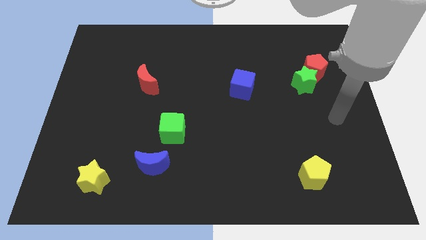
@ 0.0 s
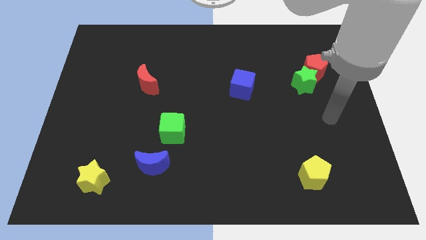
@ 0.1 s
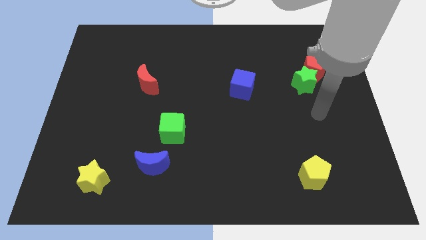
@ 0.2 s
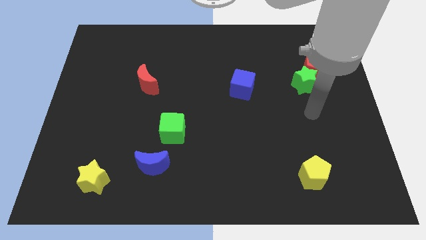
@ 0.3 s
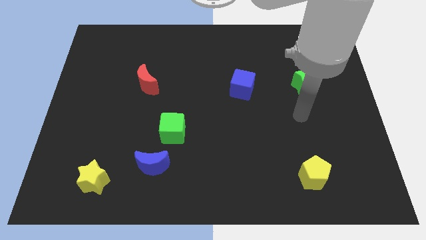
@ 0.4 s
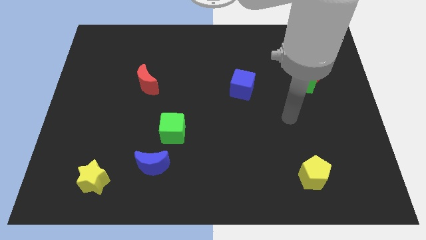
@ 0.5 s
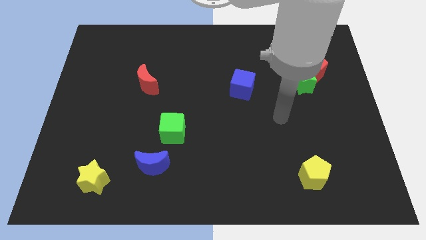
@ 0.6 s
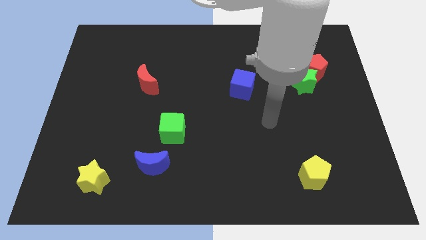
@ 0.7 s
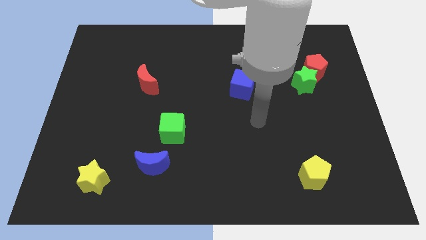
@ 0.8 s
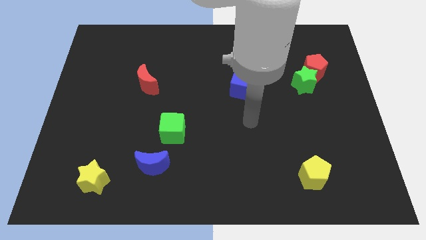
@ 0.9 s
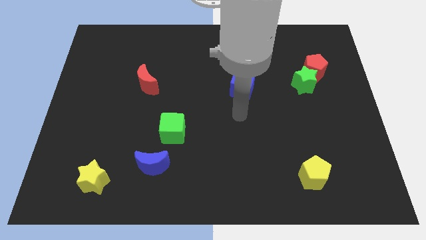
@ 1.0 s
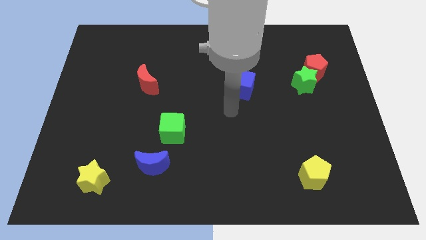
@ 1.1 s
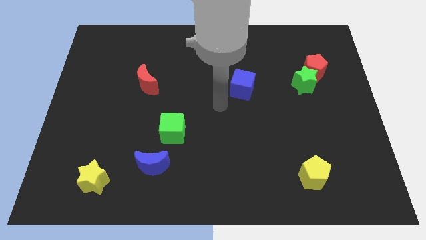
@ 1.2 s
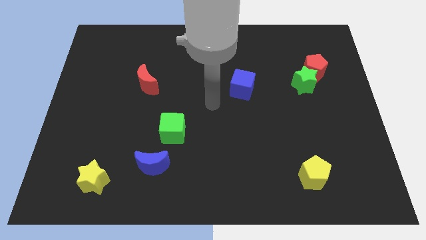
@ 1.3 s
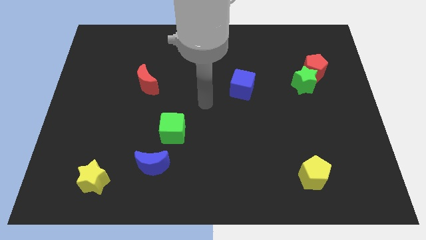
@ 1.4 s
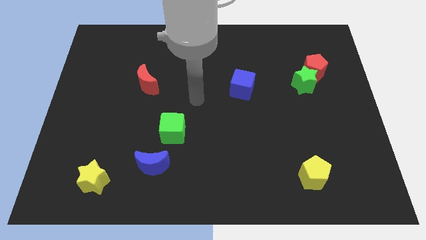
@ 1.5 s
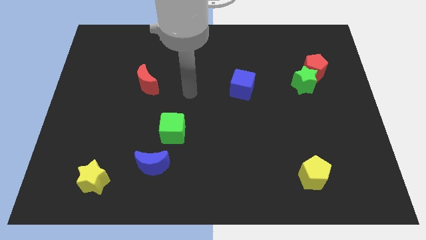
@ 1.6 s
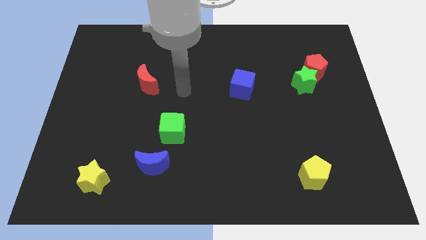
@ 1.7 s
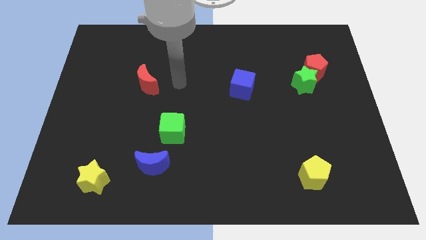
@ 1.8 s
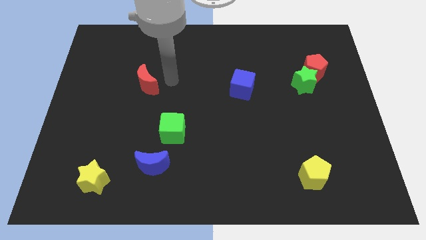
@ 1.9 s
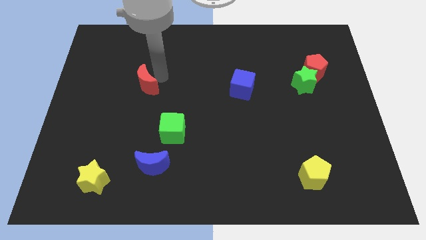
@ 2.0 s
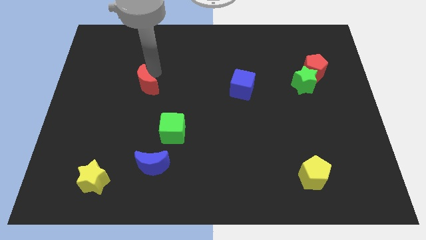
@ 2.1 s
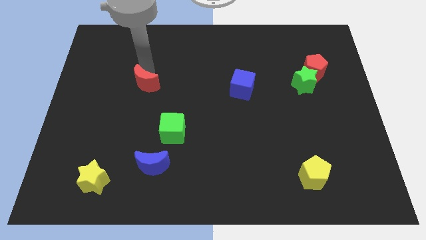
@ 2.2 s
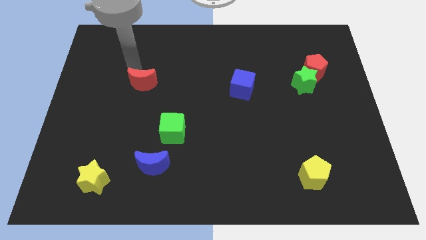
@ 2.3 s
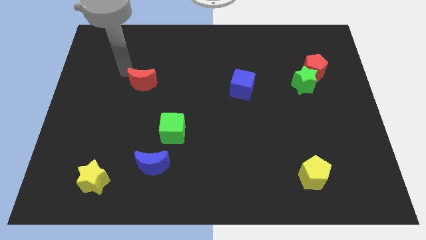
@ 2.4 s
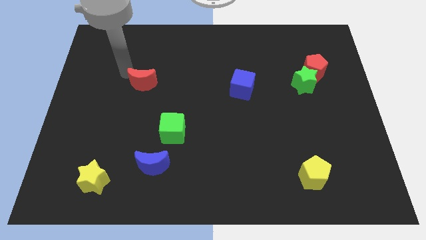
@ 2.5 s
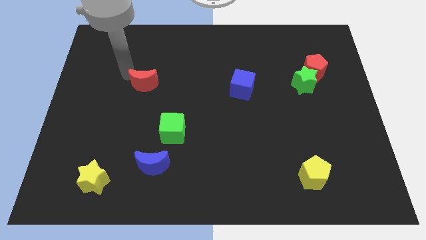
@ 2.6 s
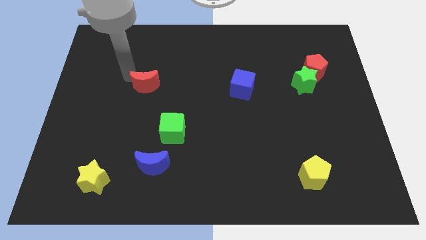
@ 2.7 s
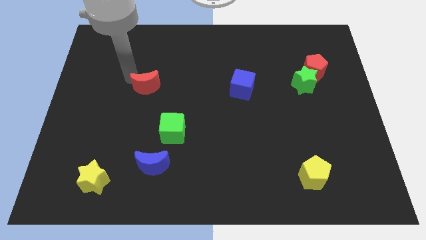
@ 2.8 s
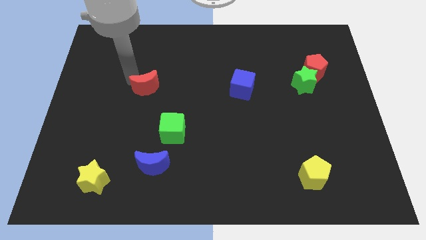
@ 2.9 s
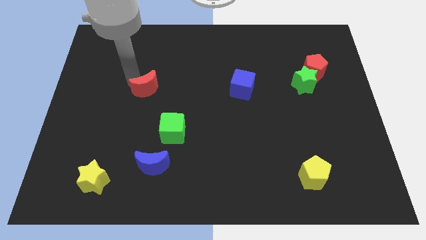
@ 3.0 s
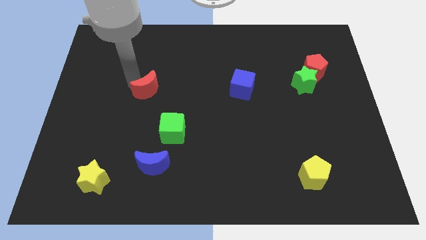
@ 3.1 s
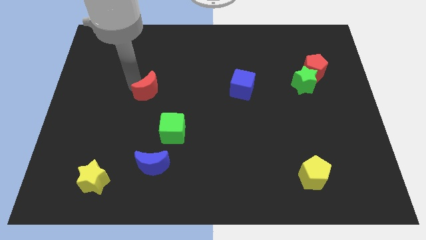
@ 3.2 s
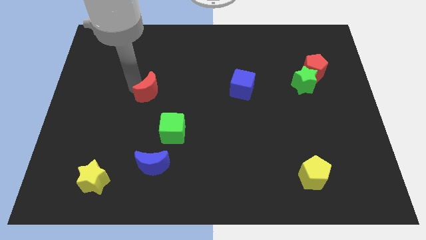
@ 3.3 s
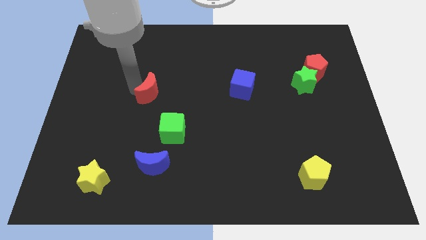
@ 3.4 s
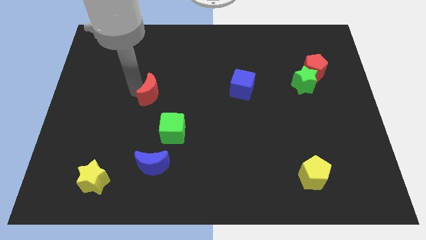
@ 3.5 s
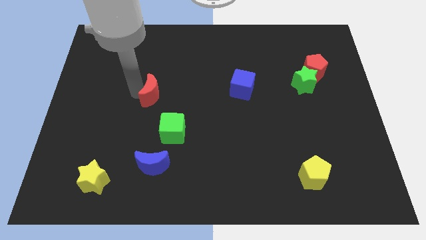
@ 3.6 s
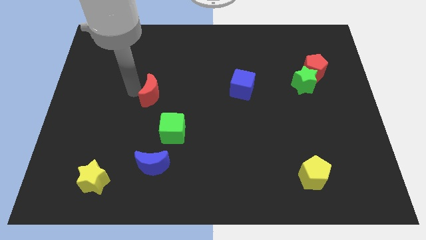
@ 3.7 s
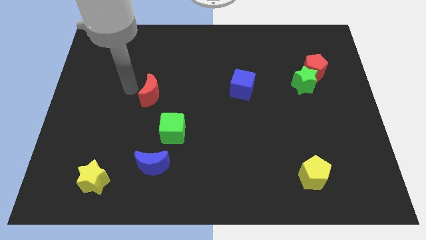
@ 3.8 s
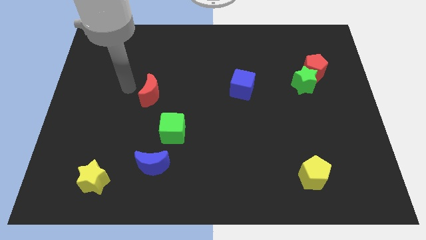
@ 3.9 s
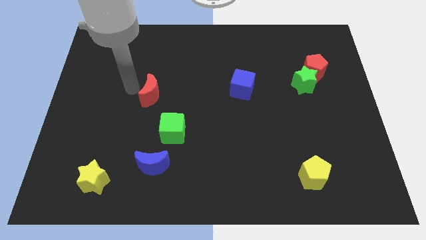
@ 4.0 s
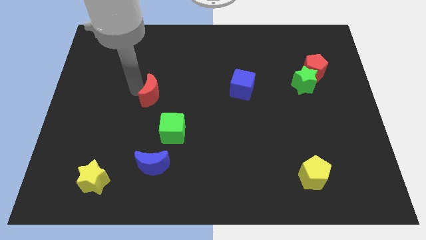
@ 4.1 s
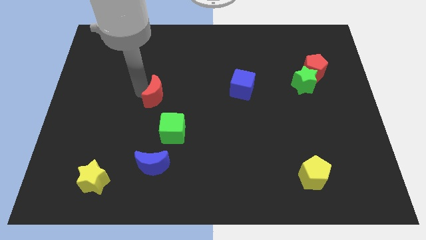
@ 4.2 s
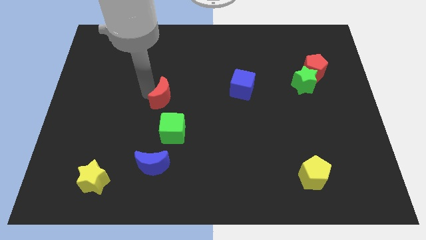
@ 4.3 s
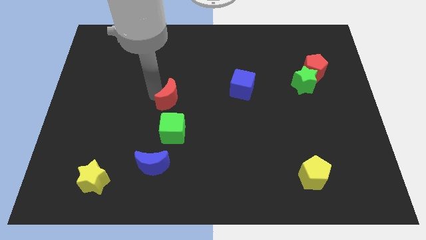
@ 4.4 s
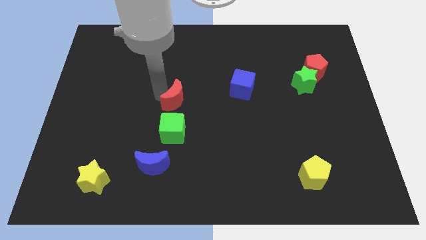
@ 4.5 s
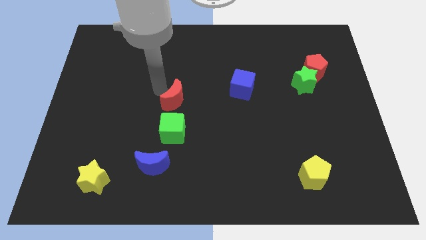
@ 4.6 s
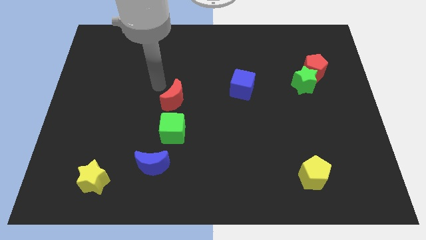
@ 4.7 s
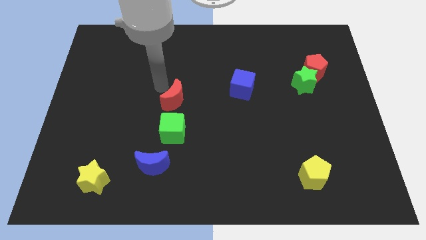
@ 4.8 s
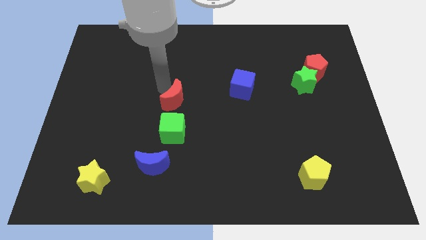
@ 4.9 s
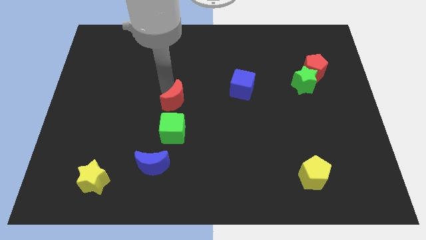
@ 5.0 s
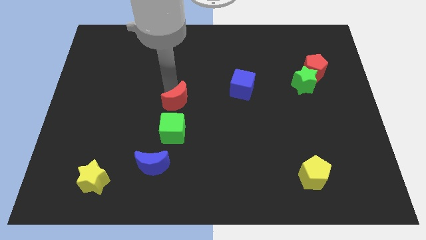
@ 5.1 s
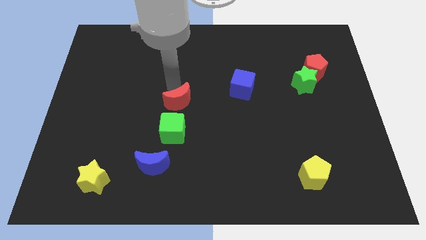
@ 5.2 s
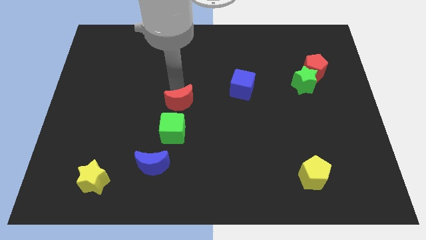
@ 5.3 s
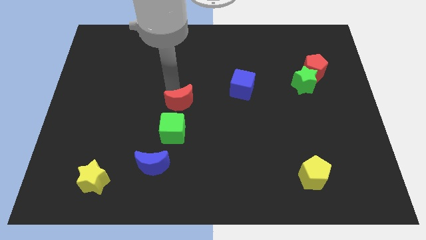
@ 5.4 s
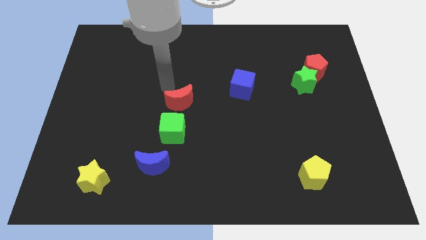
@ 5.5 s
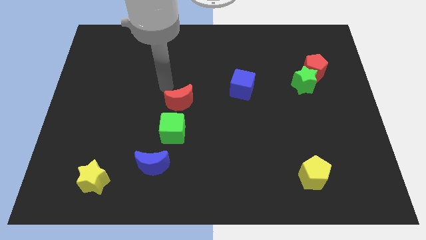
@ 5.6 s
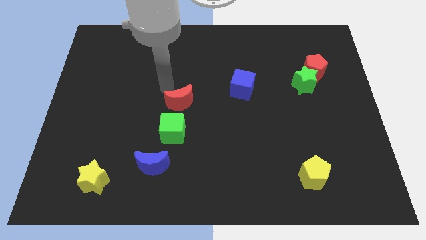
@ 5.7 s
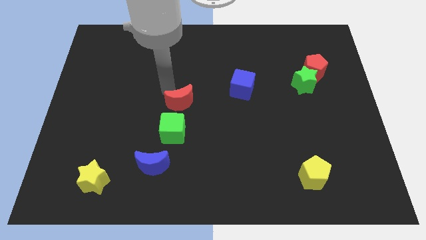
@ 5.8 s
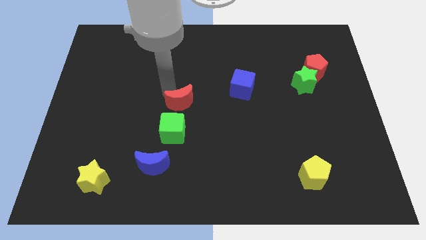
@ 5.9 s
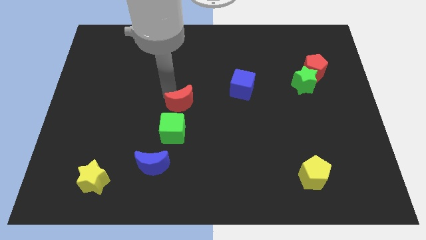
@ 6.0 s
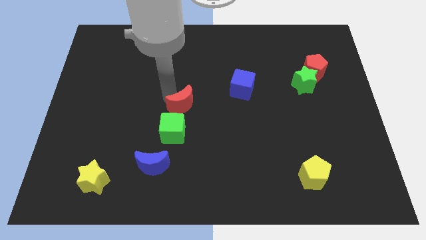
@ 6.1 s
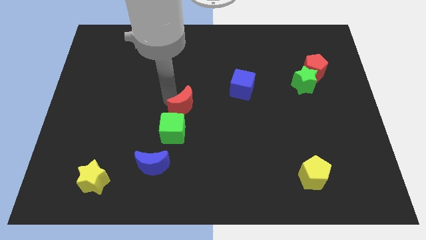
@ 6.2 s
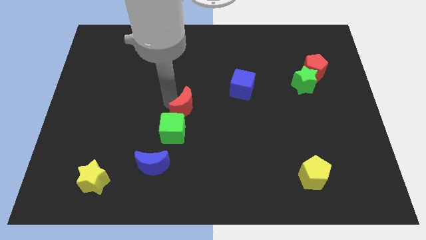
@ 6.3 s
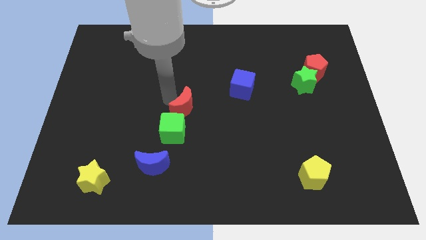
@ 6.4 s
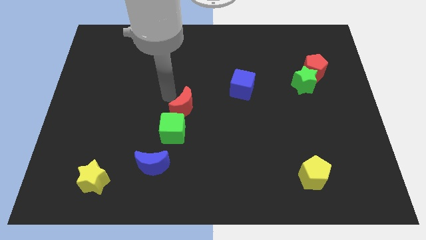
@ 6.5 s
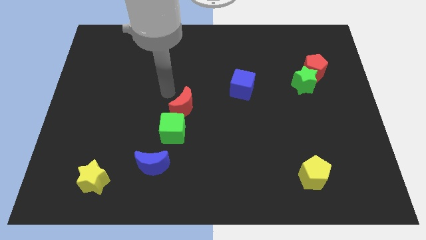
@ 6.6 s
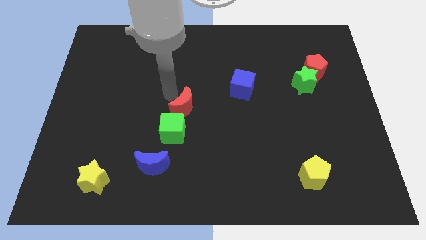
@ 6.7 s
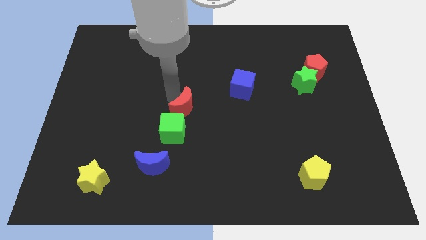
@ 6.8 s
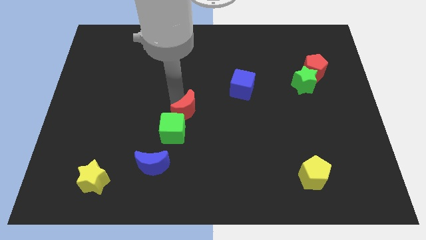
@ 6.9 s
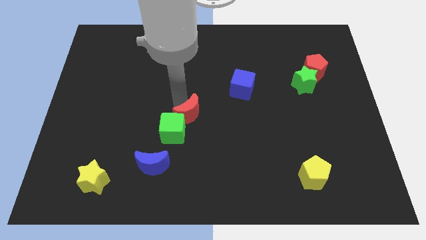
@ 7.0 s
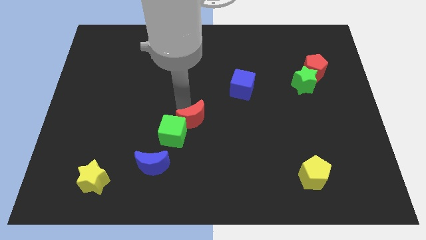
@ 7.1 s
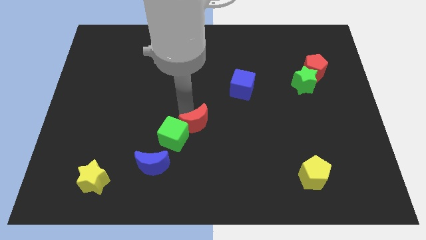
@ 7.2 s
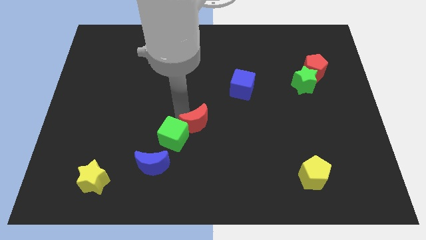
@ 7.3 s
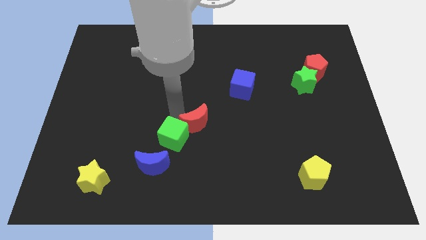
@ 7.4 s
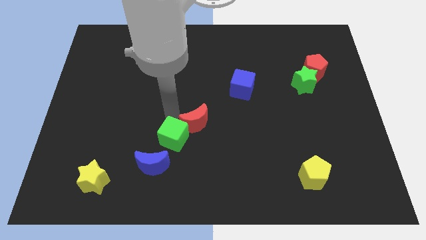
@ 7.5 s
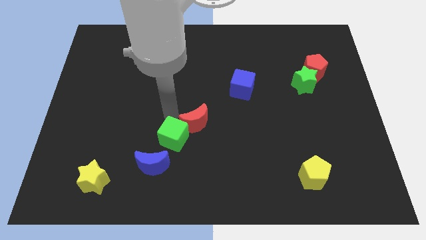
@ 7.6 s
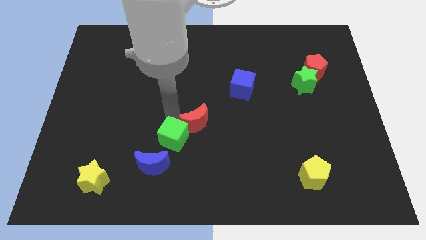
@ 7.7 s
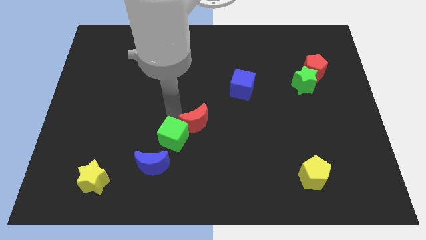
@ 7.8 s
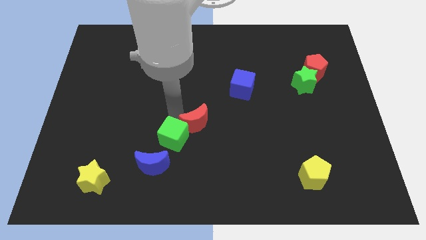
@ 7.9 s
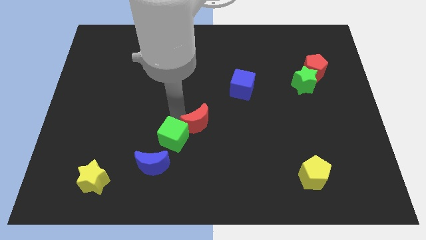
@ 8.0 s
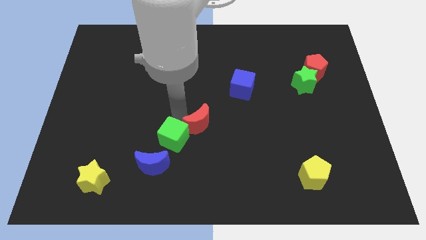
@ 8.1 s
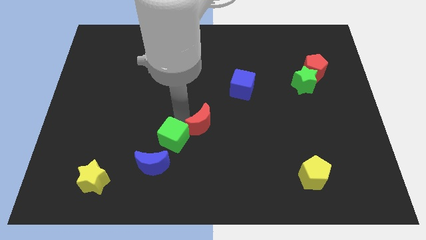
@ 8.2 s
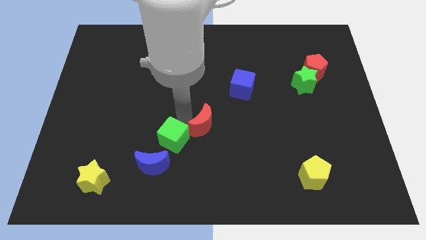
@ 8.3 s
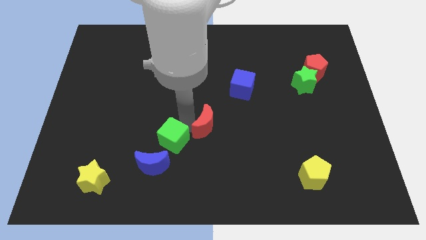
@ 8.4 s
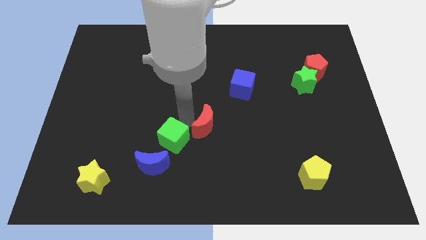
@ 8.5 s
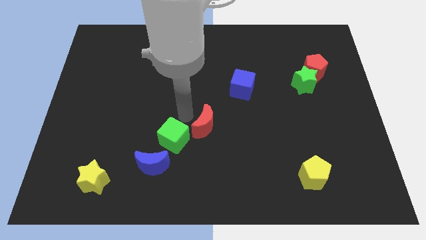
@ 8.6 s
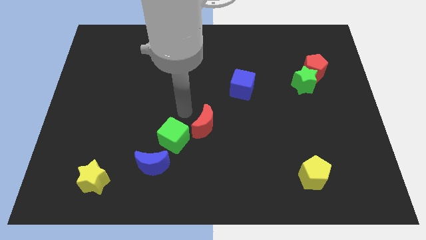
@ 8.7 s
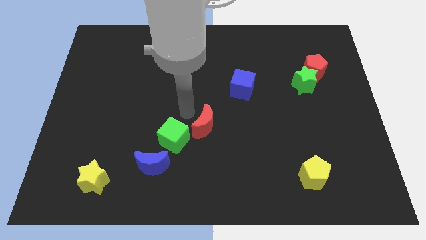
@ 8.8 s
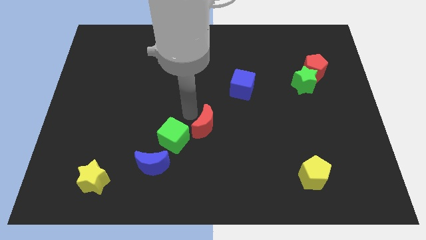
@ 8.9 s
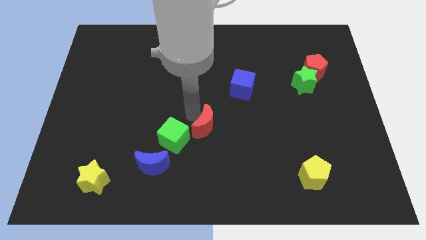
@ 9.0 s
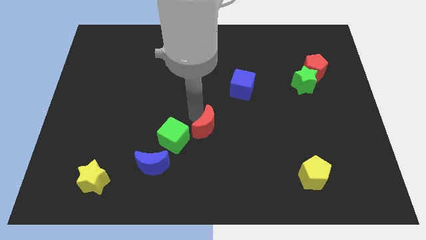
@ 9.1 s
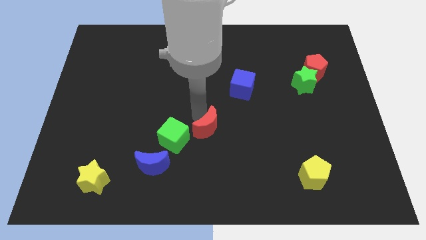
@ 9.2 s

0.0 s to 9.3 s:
push the red moon down and then to the right
